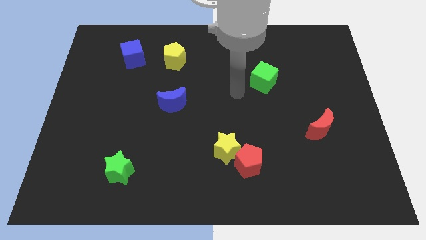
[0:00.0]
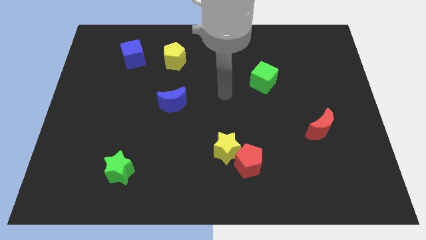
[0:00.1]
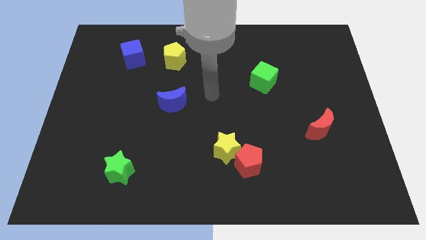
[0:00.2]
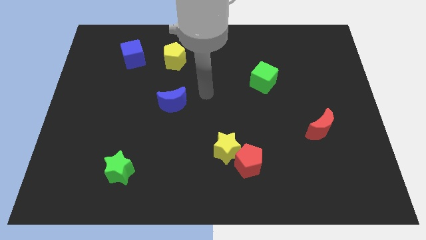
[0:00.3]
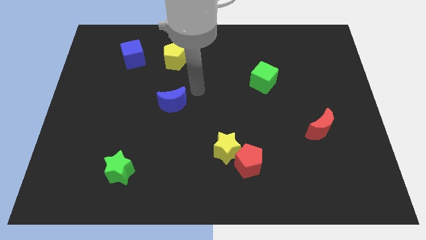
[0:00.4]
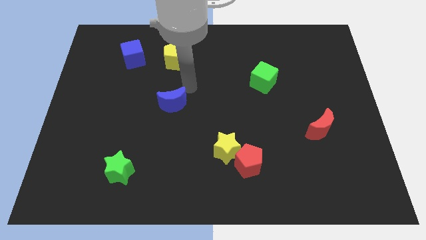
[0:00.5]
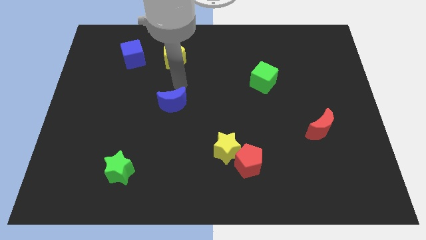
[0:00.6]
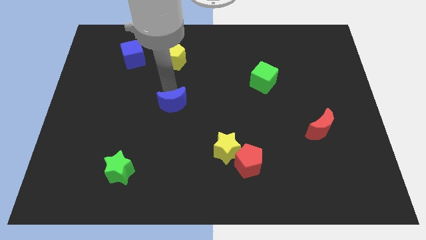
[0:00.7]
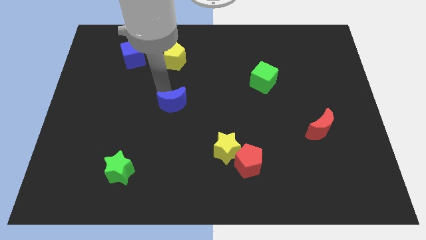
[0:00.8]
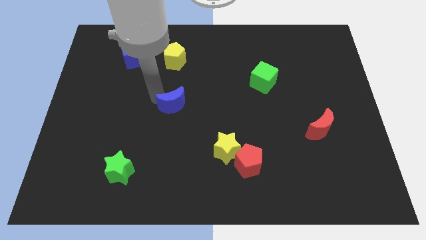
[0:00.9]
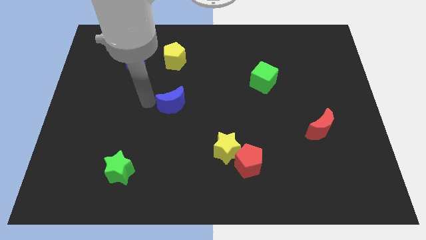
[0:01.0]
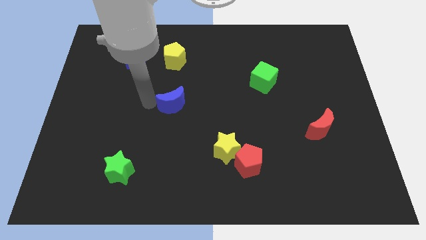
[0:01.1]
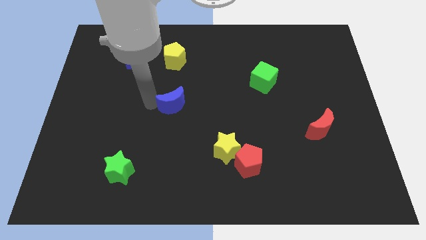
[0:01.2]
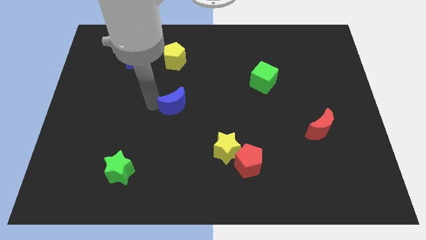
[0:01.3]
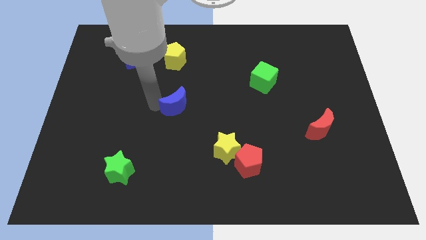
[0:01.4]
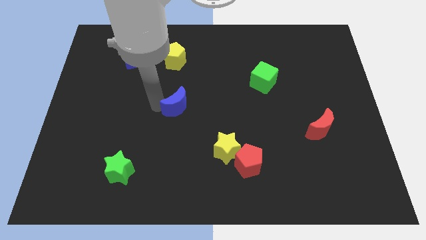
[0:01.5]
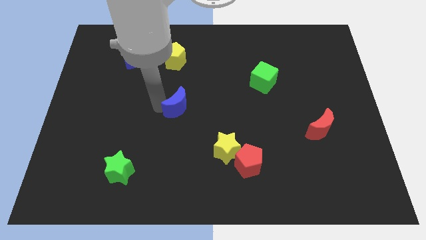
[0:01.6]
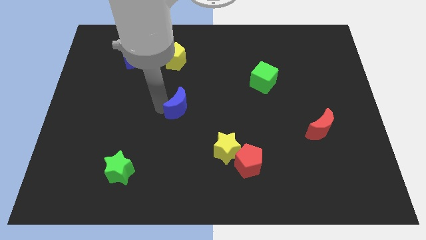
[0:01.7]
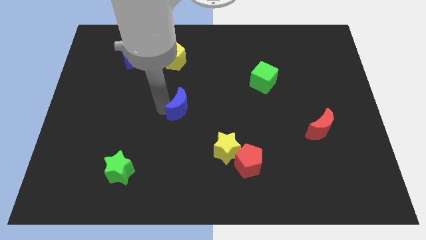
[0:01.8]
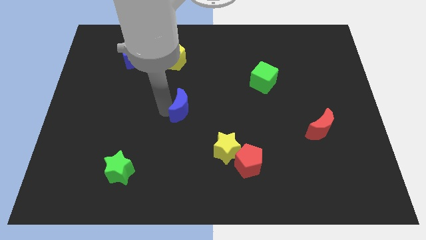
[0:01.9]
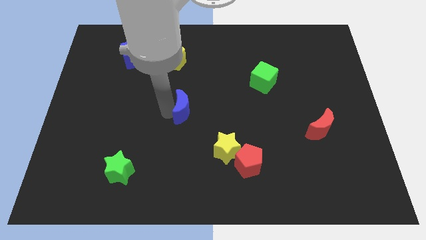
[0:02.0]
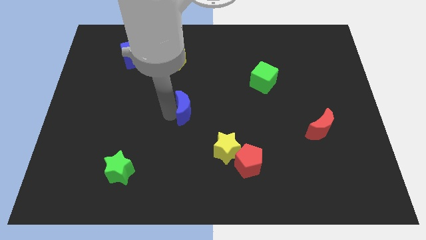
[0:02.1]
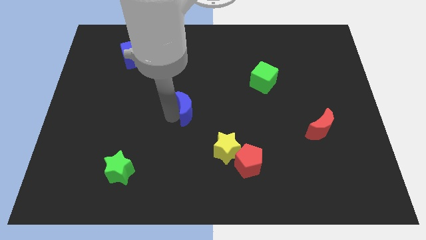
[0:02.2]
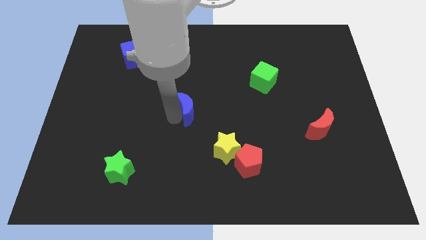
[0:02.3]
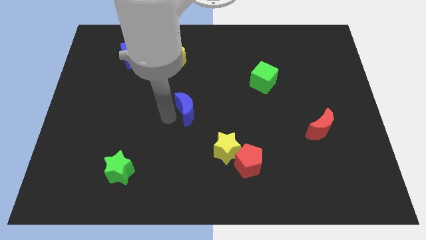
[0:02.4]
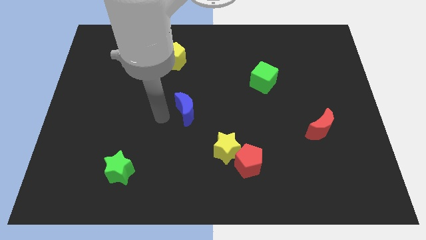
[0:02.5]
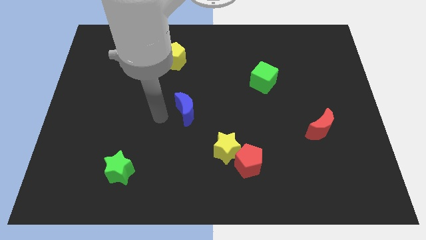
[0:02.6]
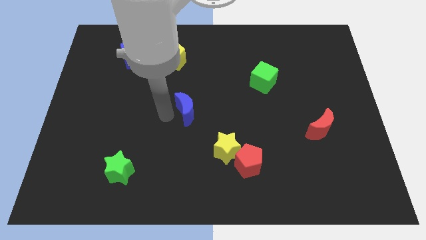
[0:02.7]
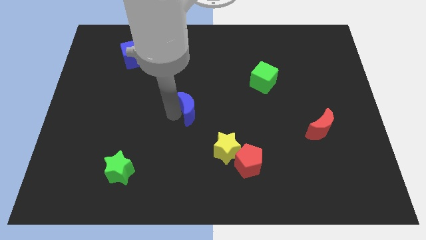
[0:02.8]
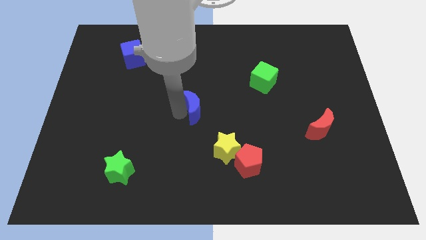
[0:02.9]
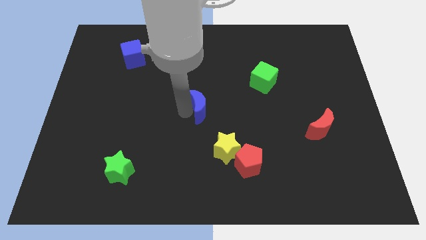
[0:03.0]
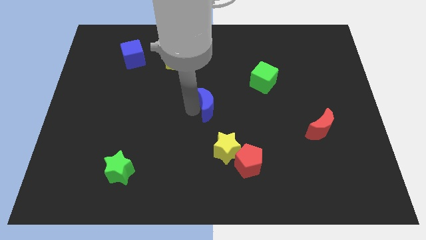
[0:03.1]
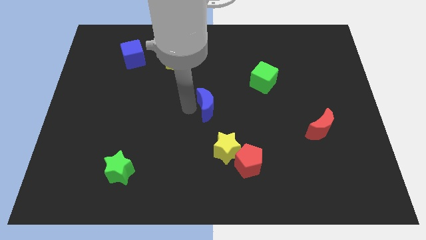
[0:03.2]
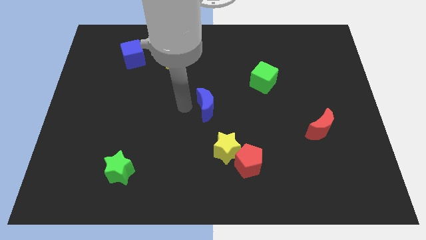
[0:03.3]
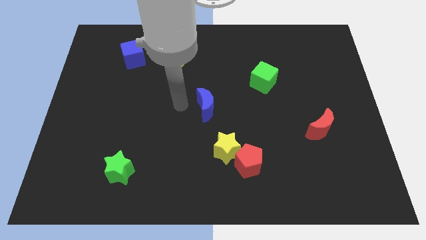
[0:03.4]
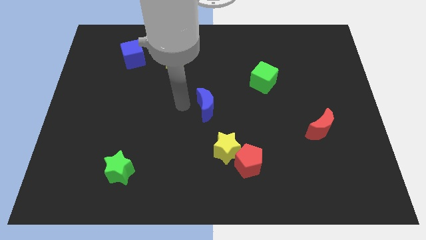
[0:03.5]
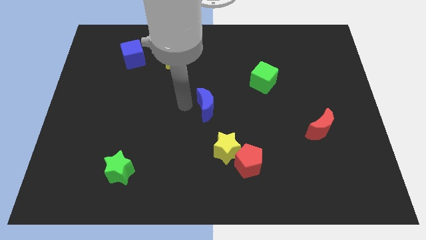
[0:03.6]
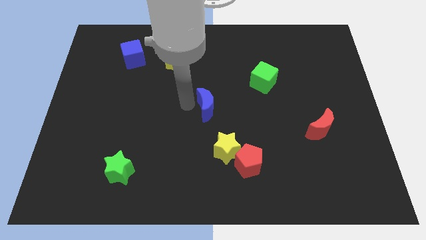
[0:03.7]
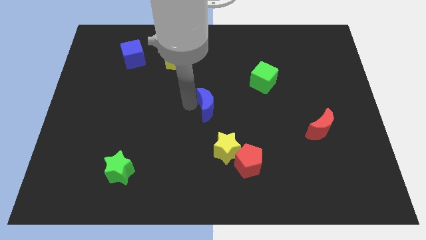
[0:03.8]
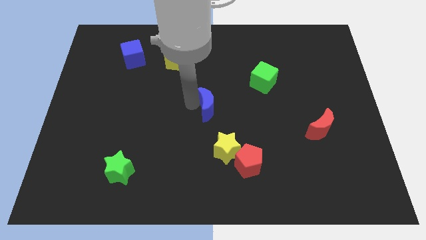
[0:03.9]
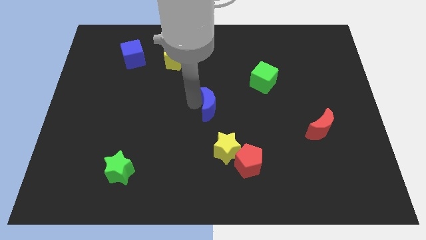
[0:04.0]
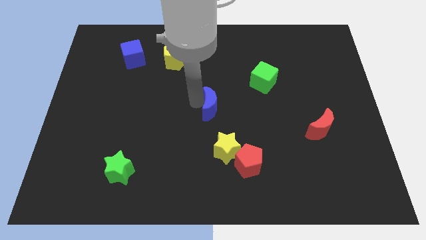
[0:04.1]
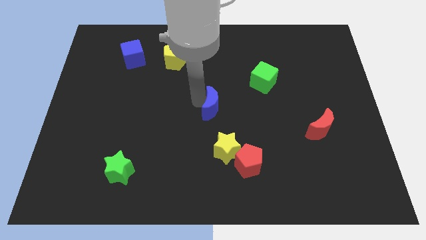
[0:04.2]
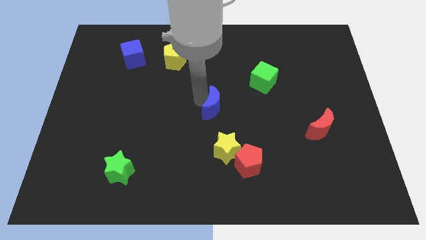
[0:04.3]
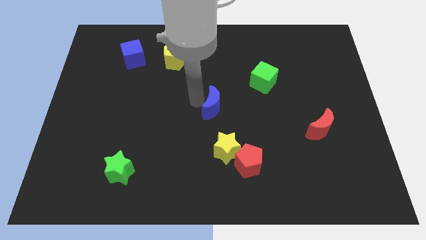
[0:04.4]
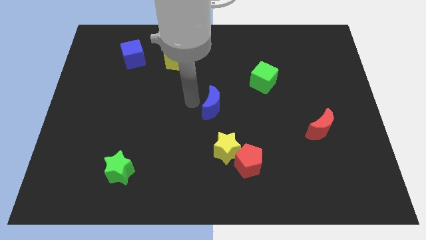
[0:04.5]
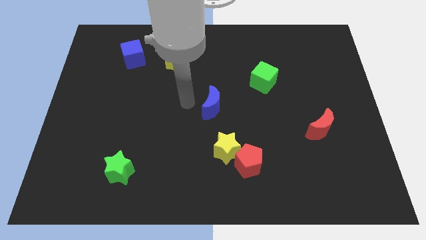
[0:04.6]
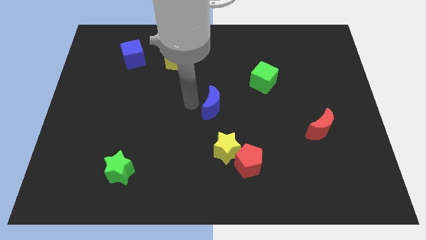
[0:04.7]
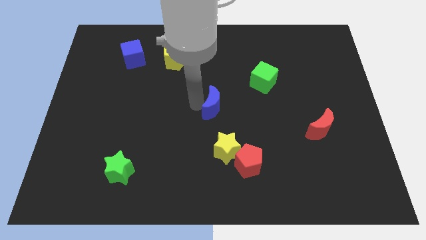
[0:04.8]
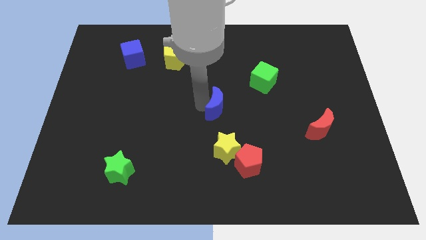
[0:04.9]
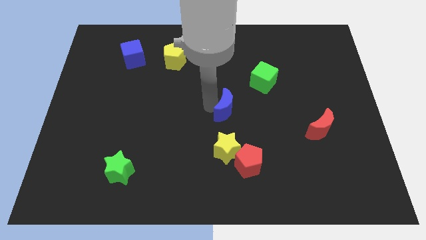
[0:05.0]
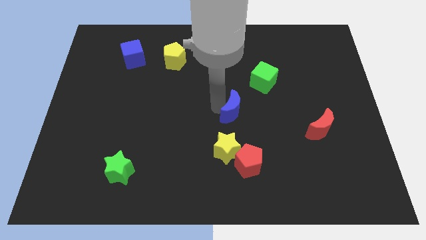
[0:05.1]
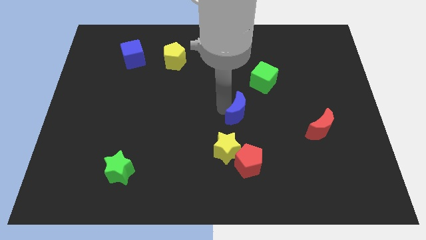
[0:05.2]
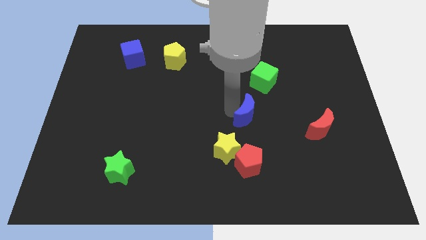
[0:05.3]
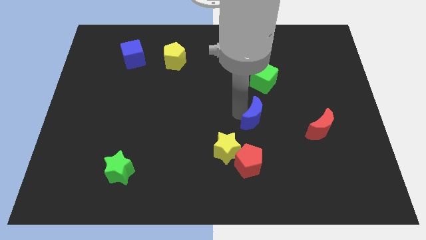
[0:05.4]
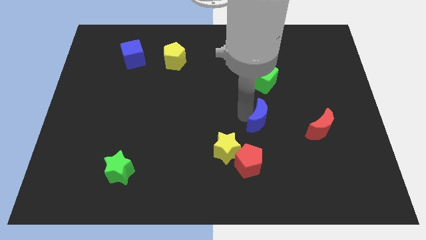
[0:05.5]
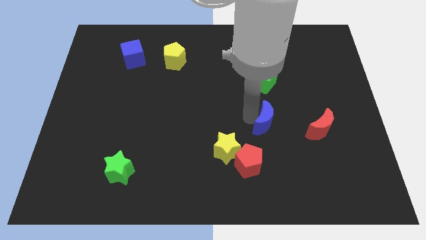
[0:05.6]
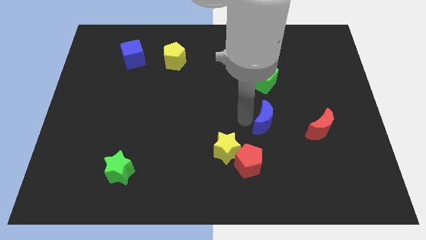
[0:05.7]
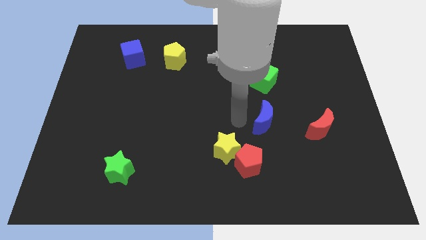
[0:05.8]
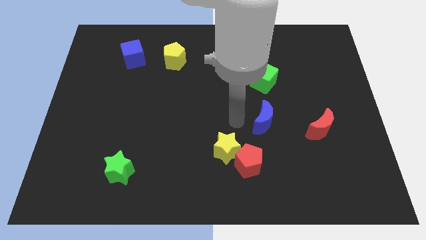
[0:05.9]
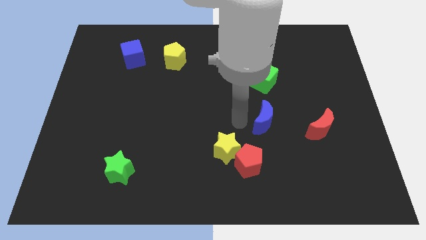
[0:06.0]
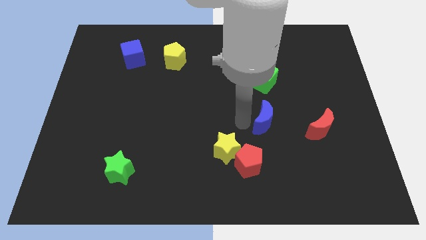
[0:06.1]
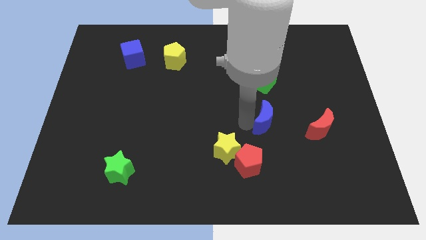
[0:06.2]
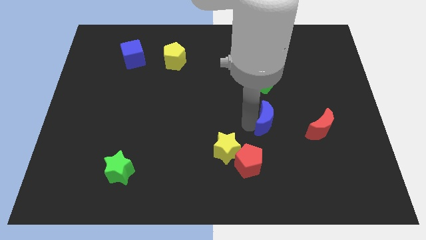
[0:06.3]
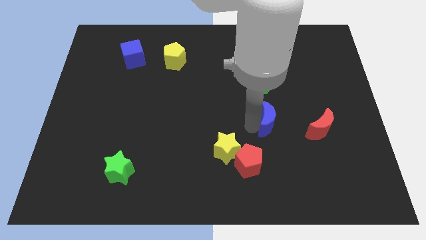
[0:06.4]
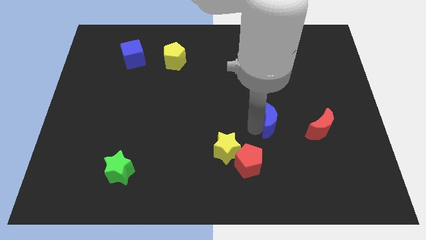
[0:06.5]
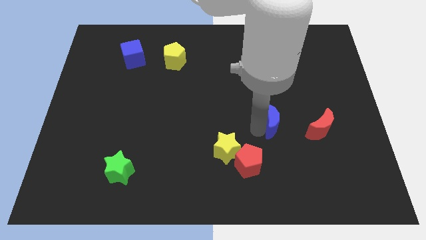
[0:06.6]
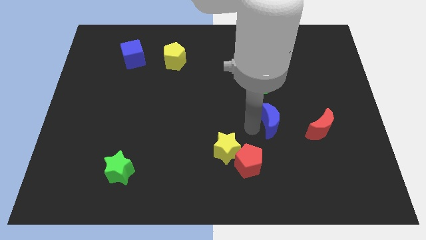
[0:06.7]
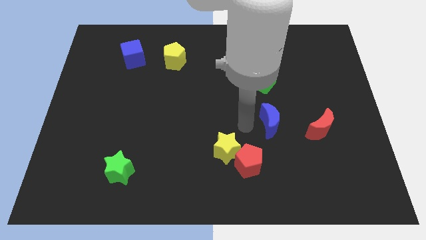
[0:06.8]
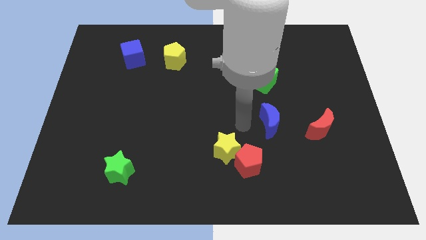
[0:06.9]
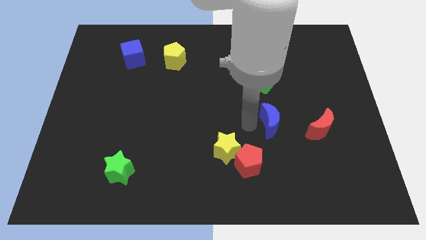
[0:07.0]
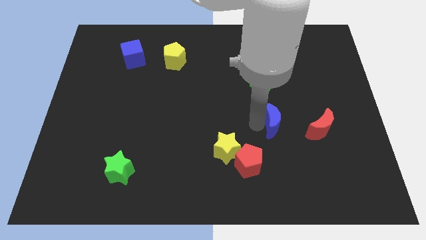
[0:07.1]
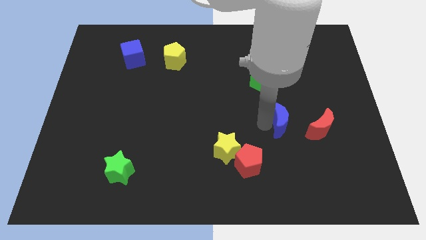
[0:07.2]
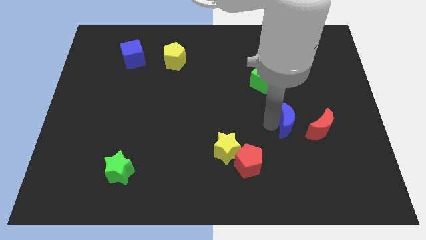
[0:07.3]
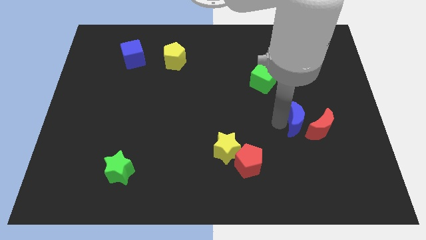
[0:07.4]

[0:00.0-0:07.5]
slide the blue moon next to the red moon

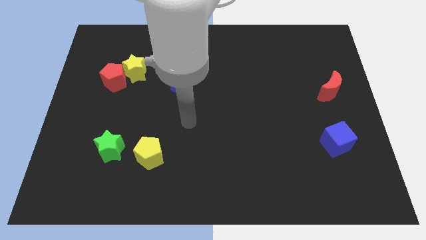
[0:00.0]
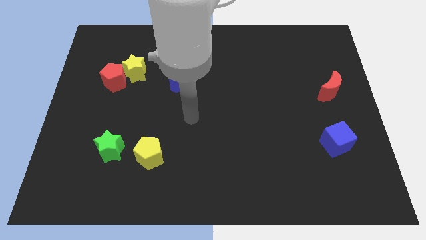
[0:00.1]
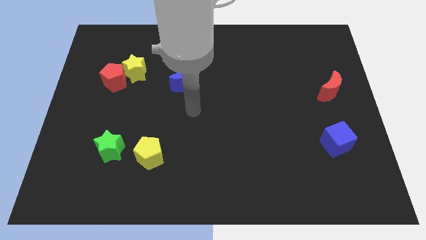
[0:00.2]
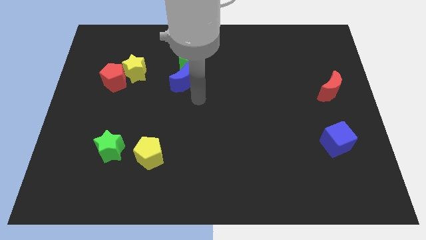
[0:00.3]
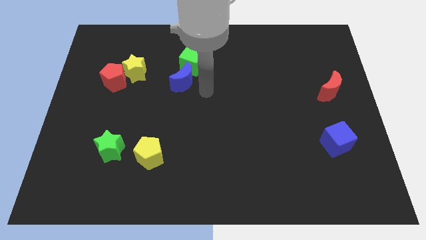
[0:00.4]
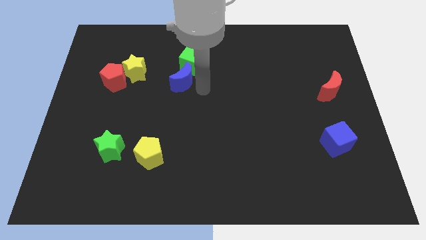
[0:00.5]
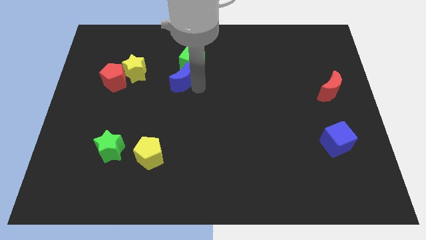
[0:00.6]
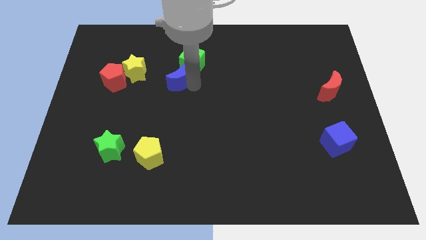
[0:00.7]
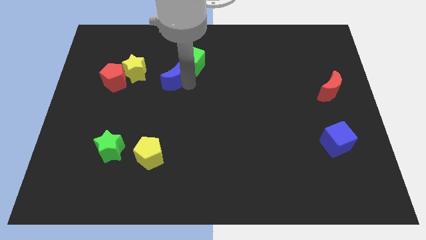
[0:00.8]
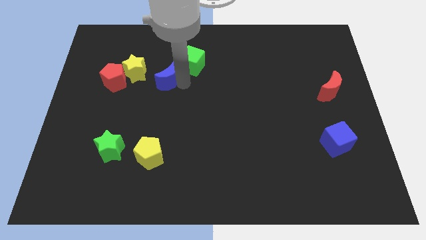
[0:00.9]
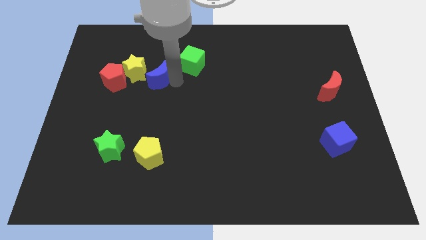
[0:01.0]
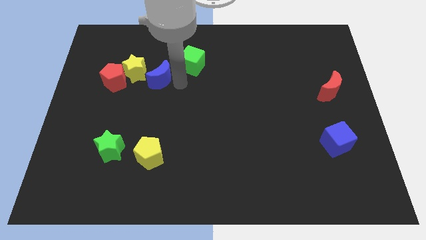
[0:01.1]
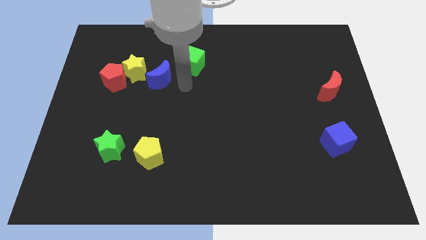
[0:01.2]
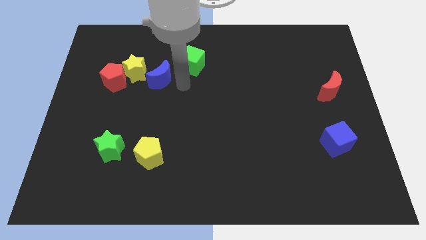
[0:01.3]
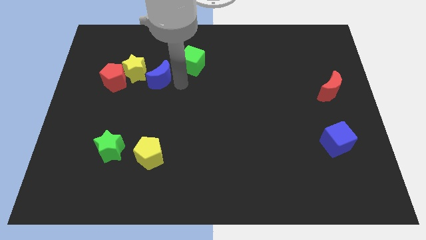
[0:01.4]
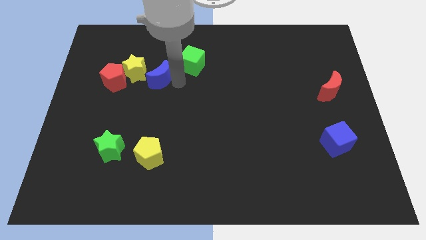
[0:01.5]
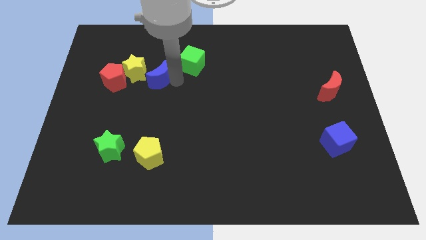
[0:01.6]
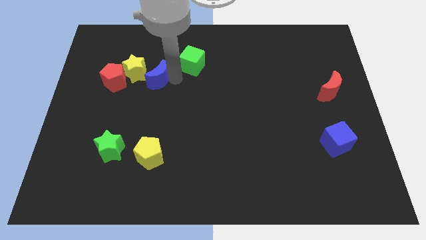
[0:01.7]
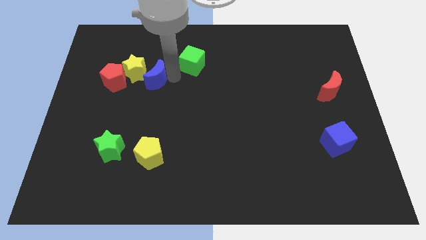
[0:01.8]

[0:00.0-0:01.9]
push the blue moon close to the yellow star
